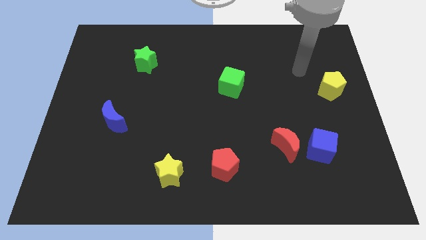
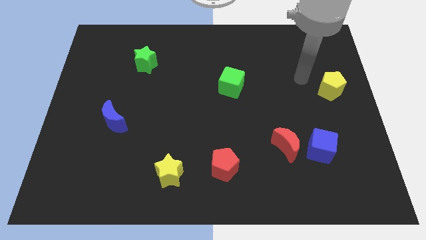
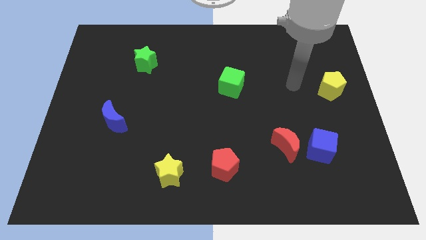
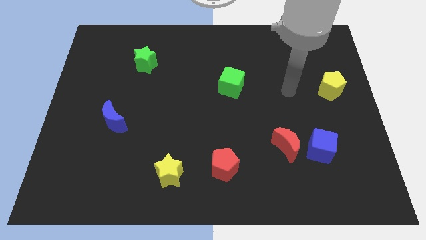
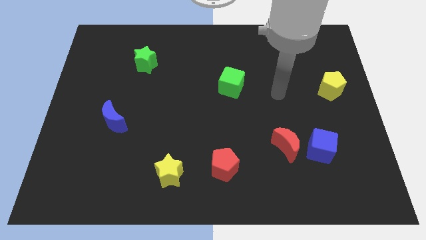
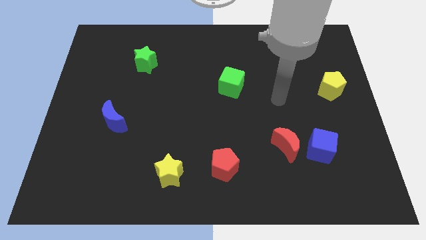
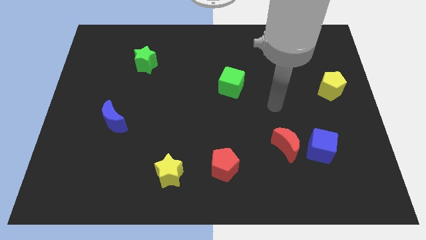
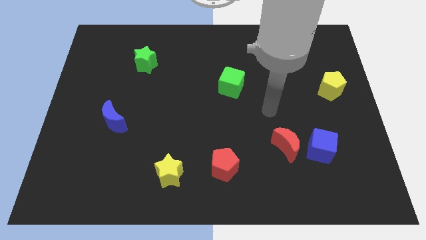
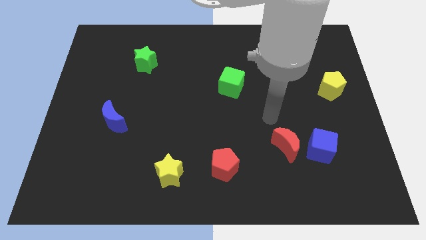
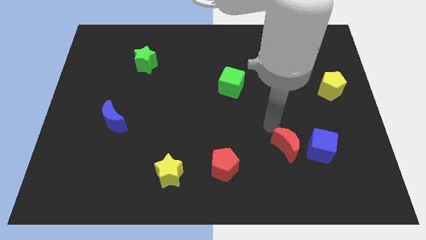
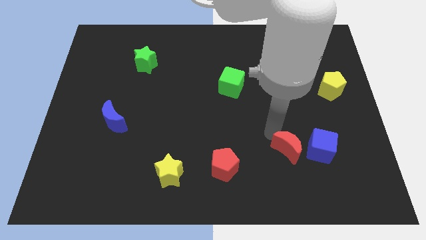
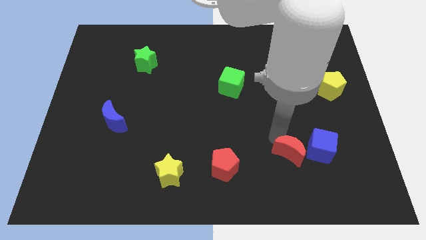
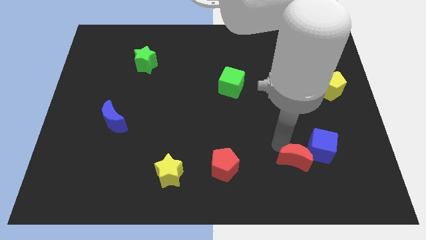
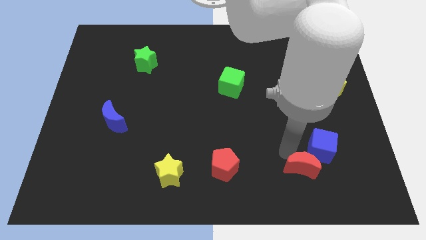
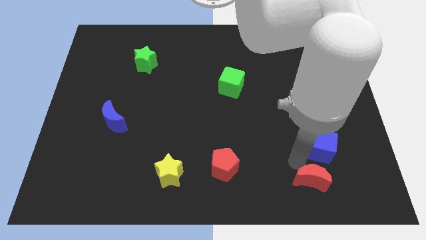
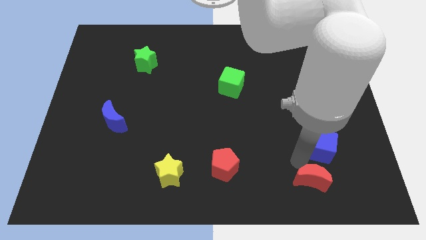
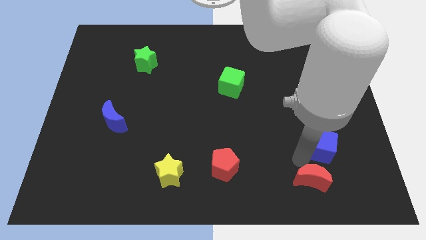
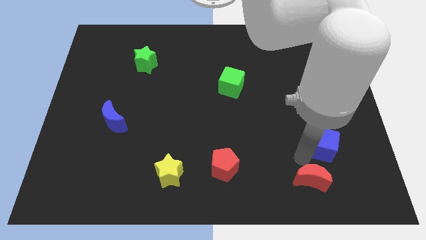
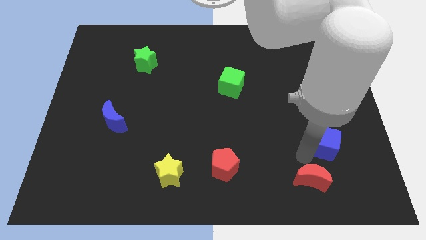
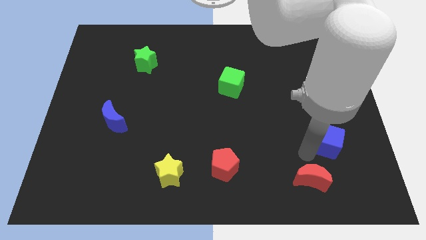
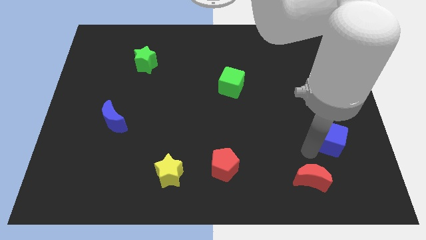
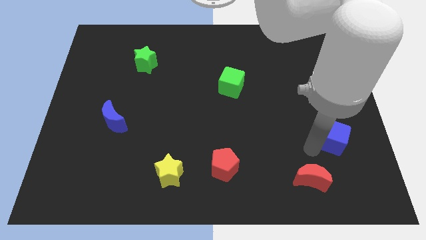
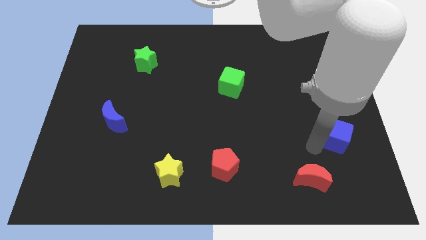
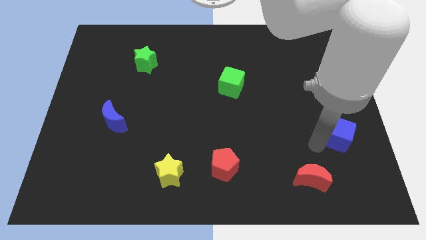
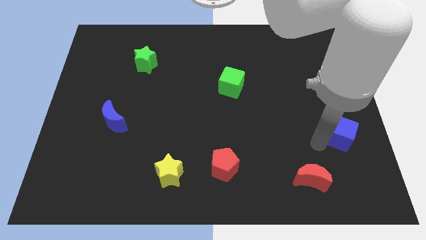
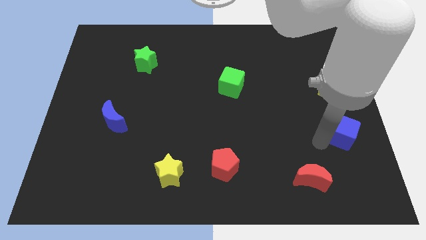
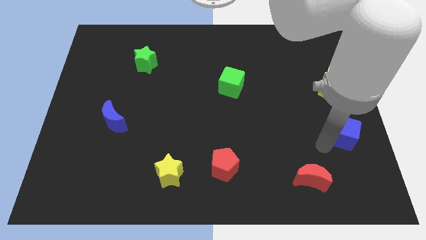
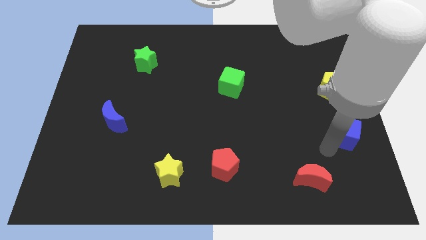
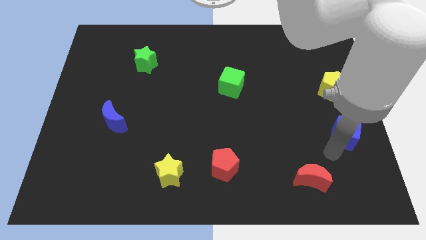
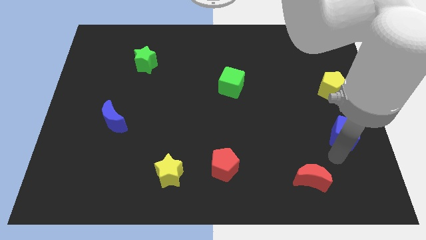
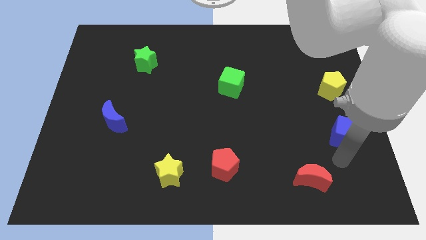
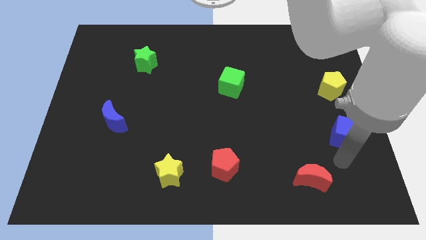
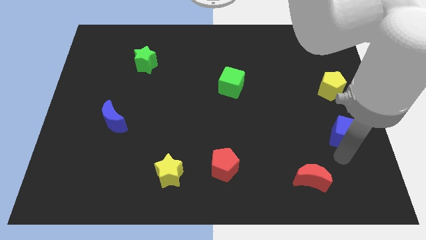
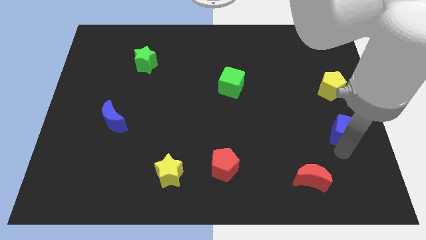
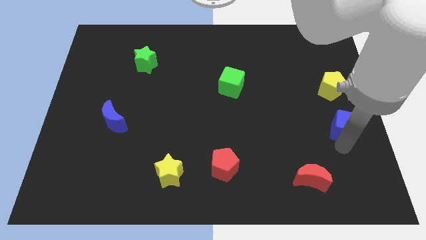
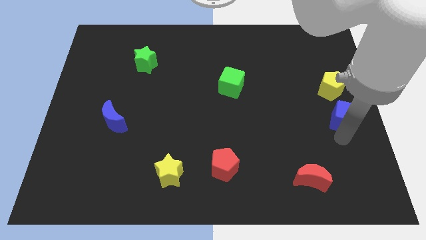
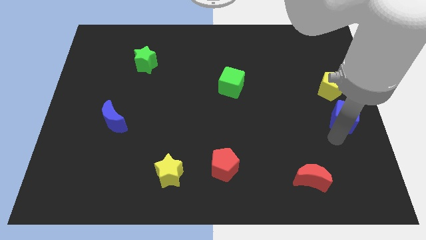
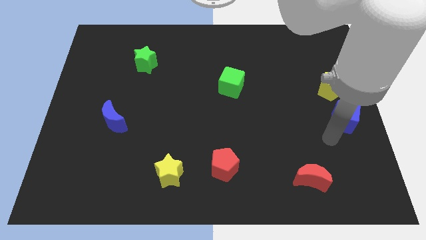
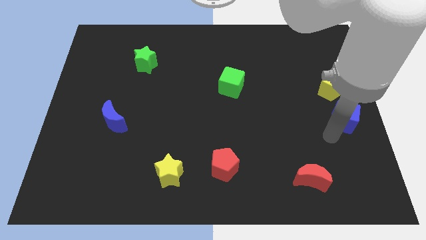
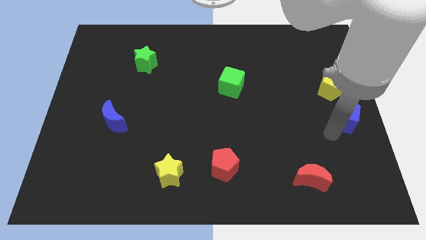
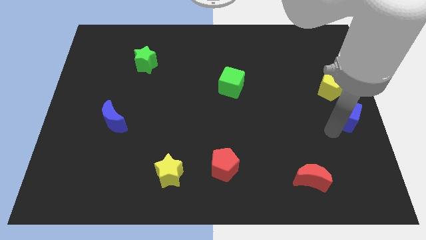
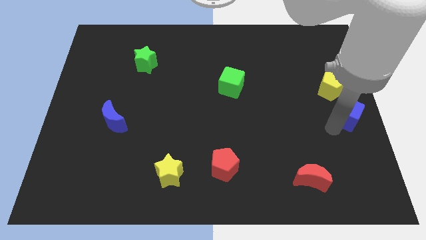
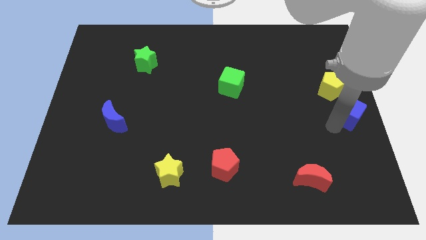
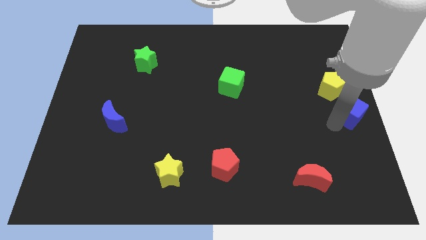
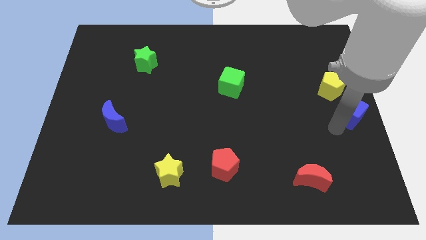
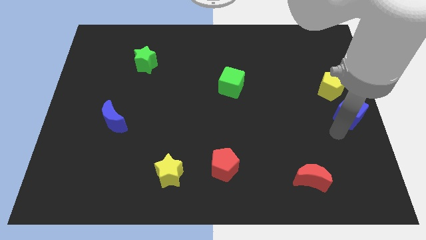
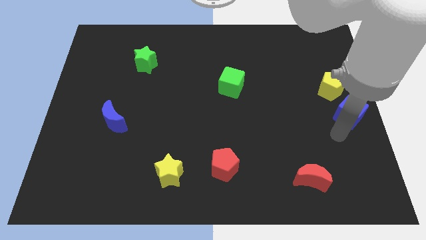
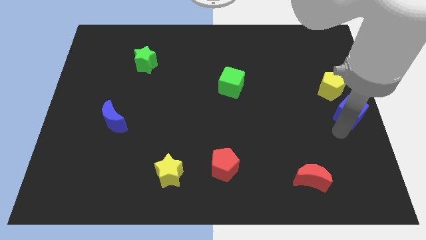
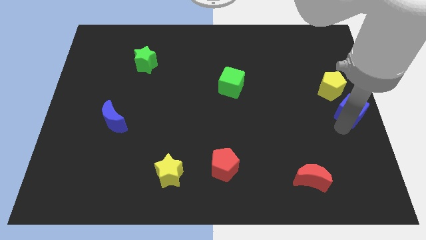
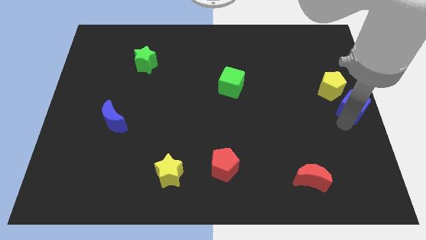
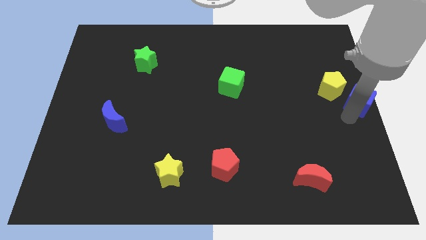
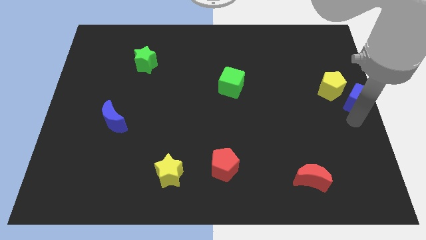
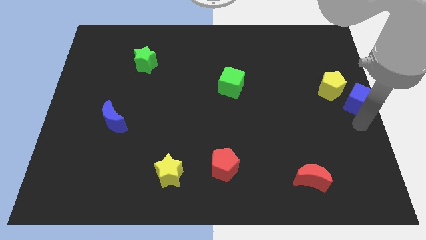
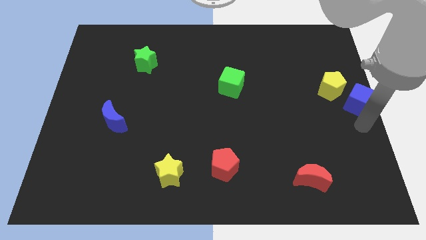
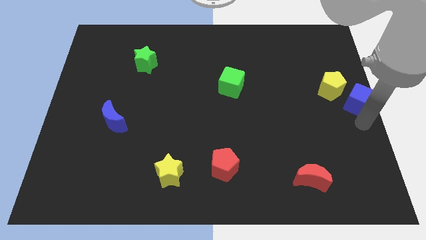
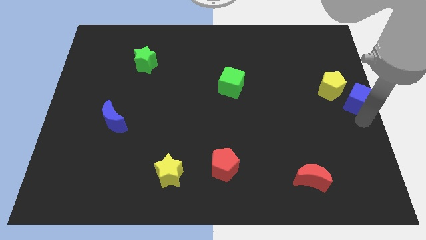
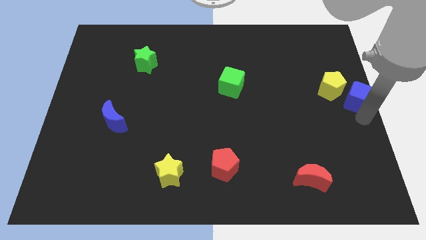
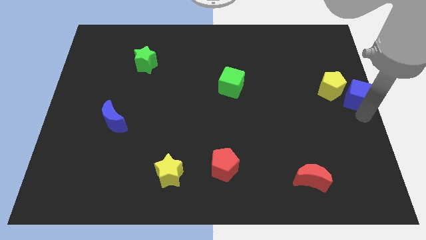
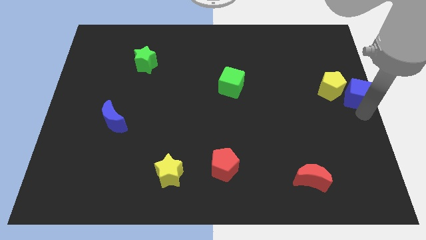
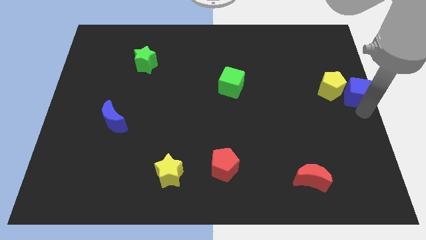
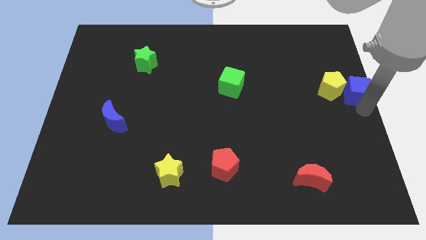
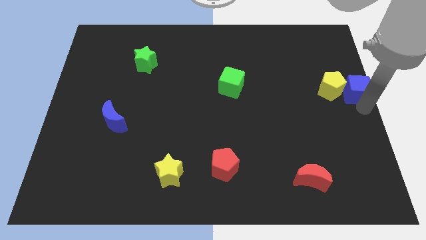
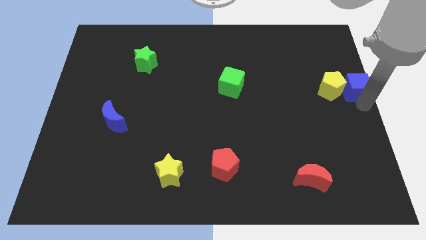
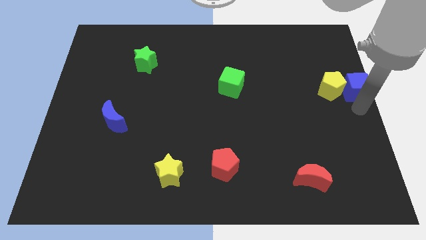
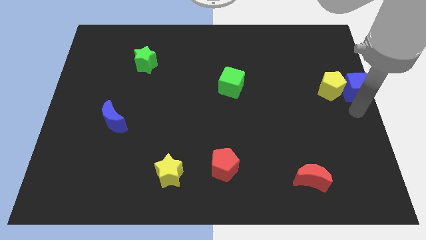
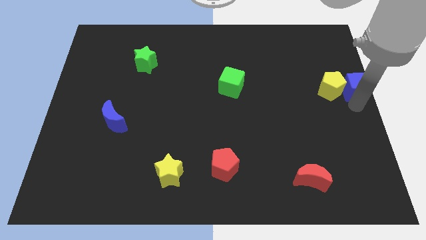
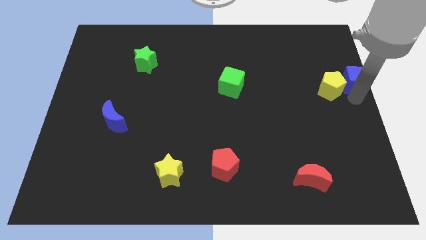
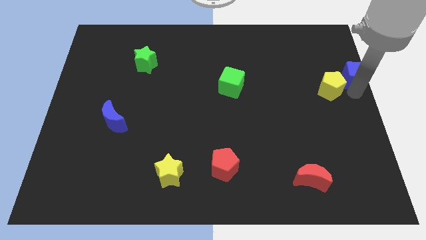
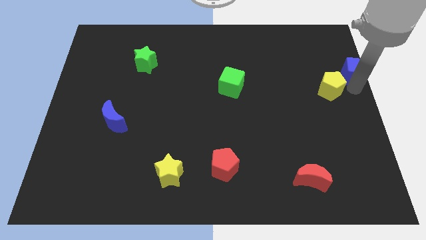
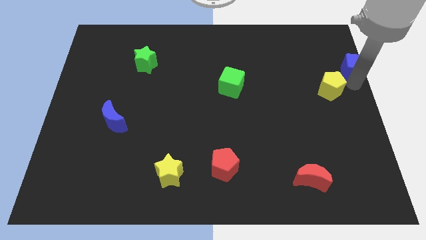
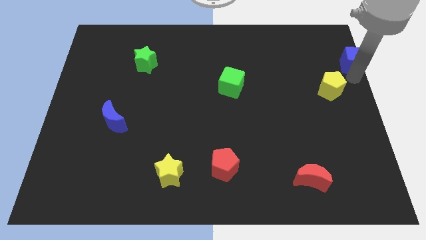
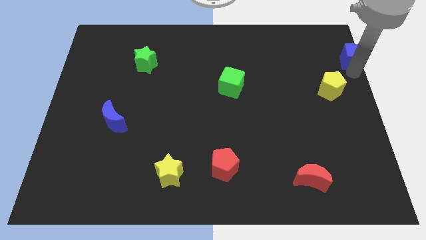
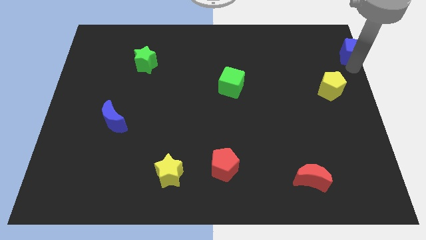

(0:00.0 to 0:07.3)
move the blue cube to the upper right corner
